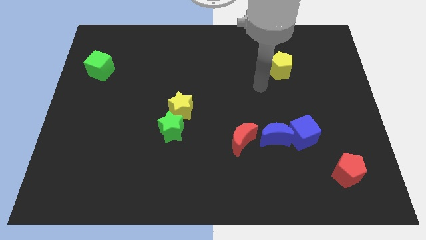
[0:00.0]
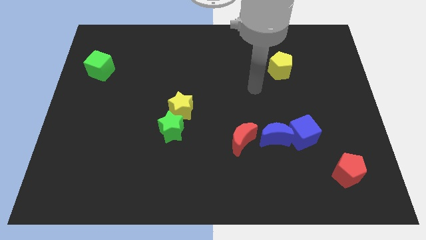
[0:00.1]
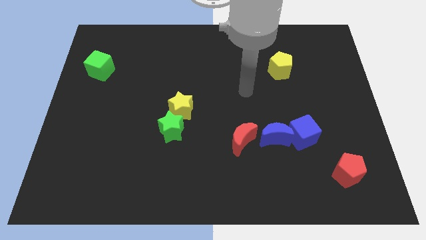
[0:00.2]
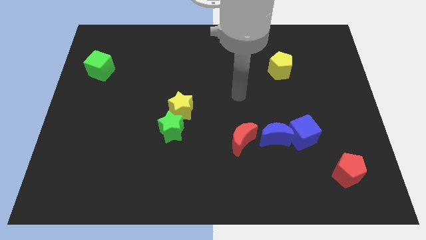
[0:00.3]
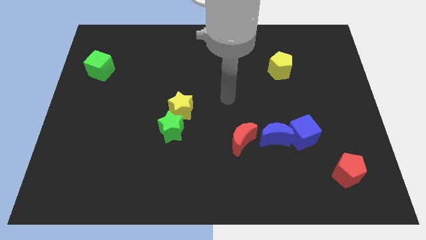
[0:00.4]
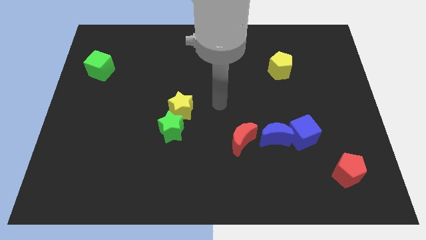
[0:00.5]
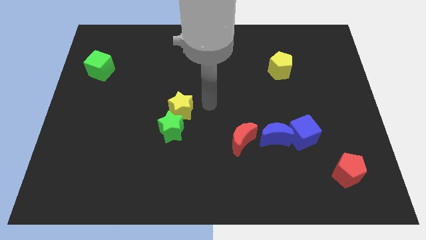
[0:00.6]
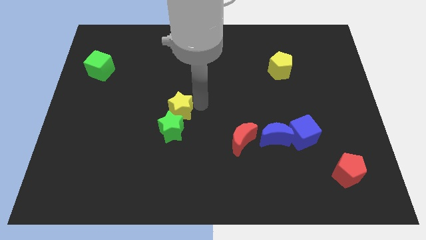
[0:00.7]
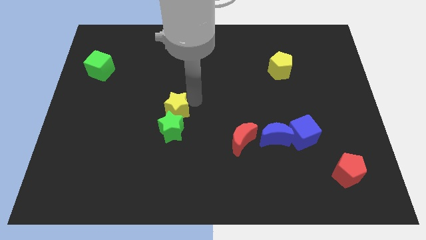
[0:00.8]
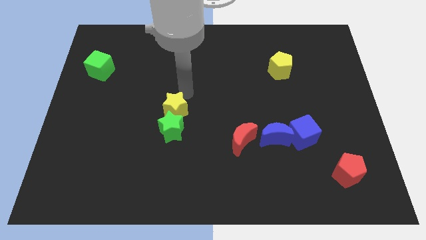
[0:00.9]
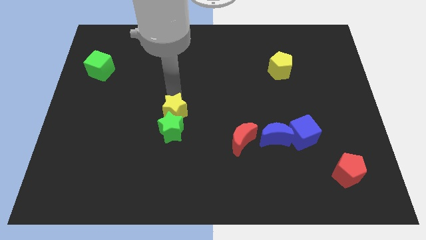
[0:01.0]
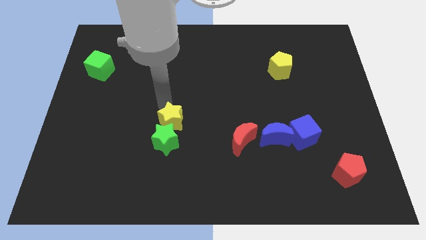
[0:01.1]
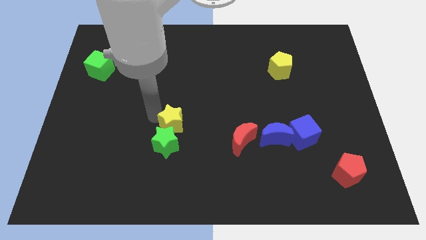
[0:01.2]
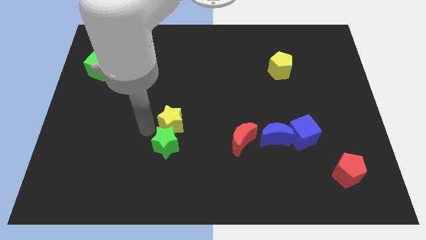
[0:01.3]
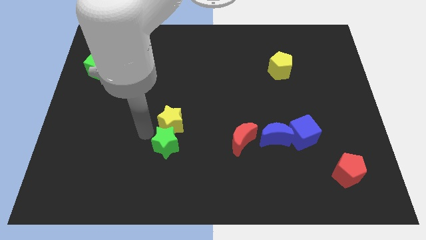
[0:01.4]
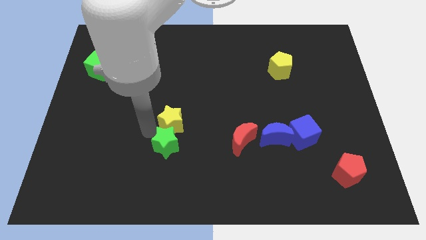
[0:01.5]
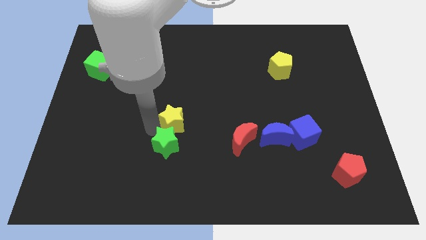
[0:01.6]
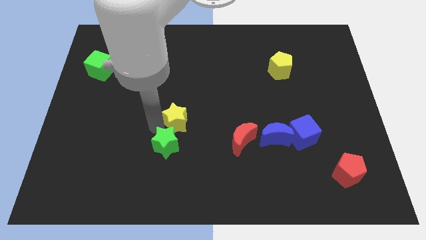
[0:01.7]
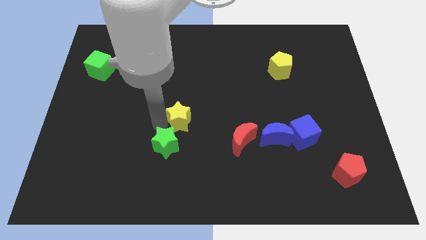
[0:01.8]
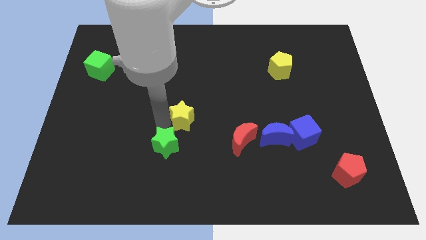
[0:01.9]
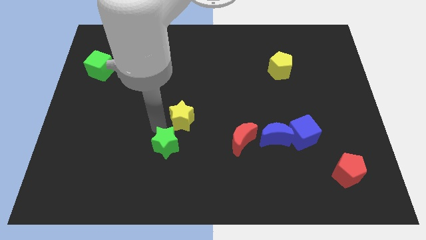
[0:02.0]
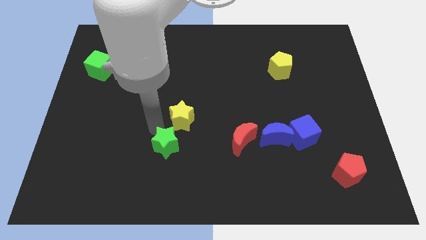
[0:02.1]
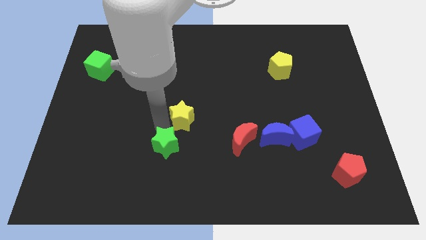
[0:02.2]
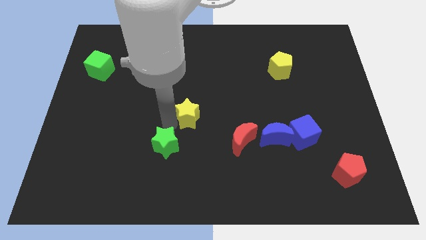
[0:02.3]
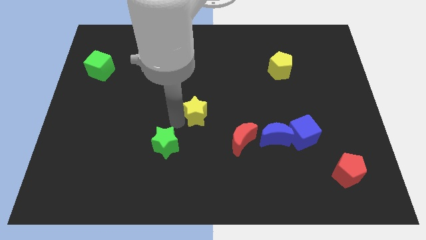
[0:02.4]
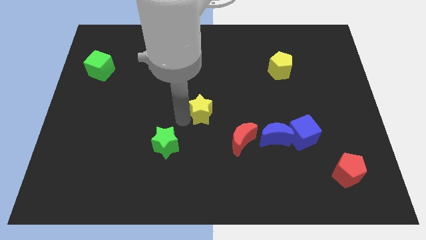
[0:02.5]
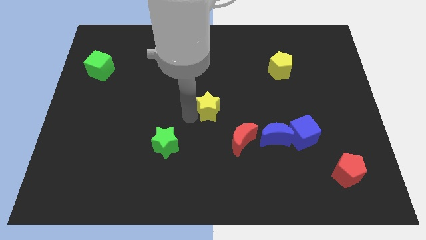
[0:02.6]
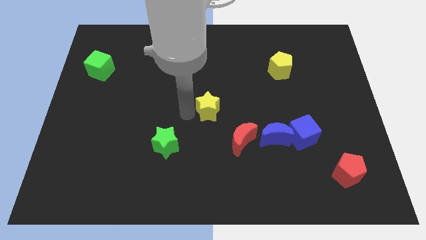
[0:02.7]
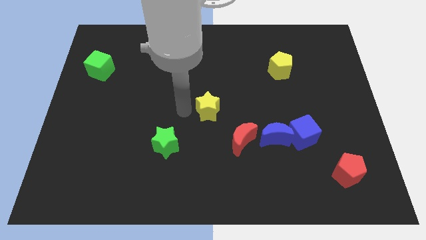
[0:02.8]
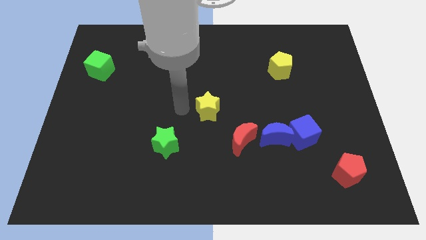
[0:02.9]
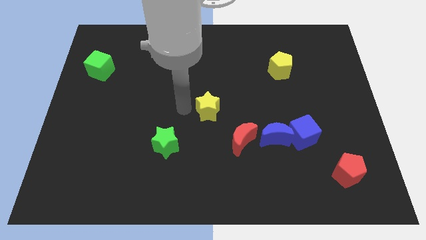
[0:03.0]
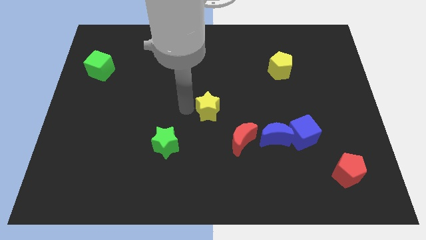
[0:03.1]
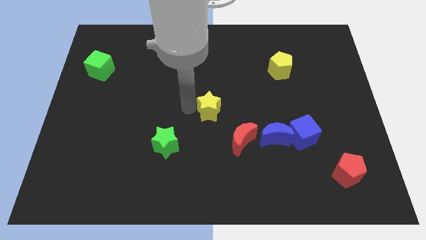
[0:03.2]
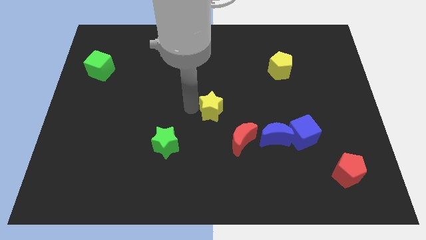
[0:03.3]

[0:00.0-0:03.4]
slightly push the yellow star to the right

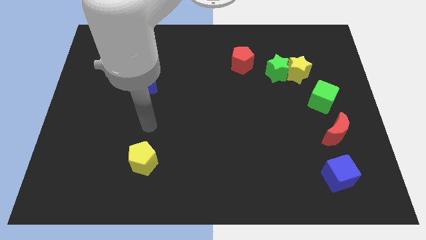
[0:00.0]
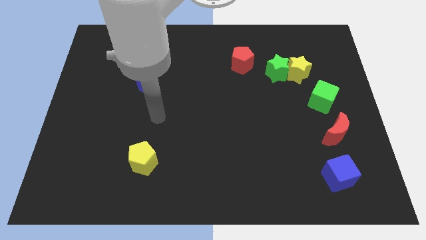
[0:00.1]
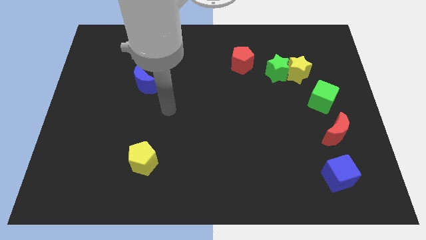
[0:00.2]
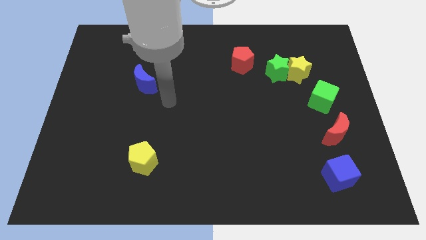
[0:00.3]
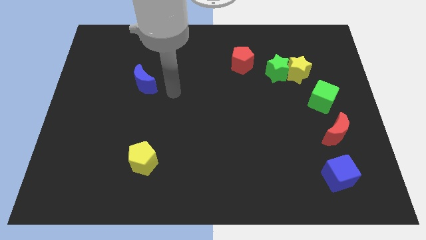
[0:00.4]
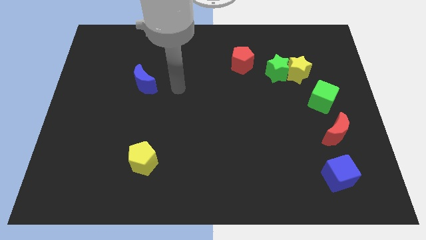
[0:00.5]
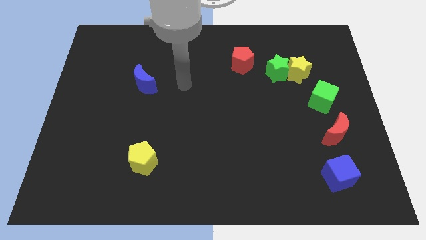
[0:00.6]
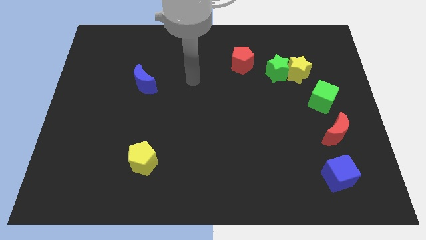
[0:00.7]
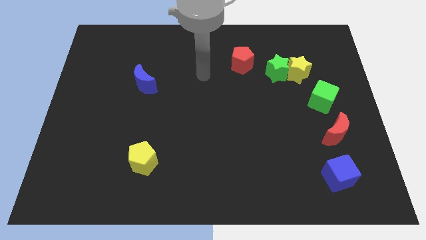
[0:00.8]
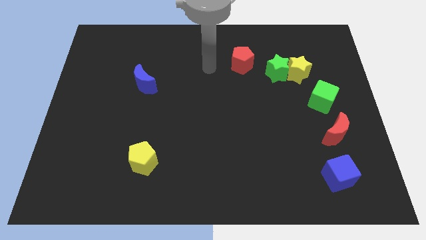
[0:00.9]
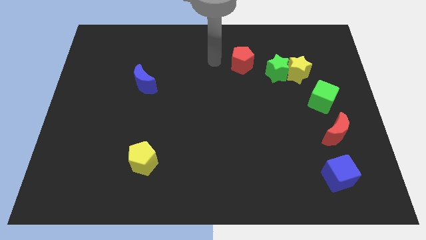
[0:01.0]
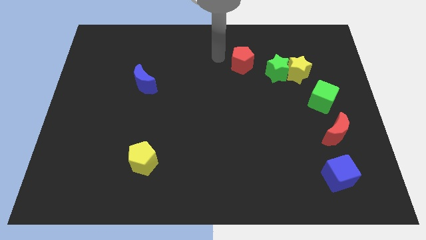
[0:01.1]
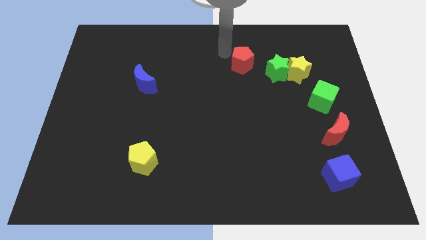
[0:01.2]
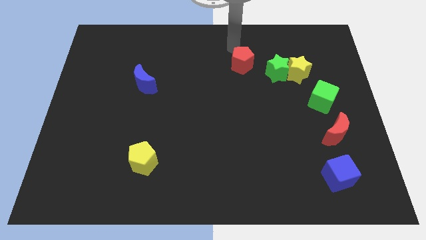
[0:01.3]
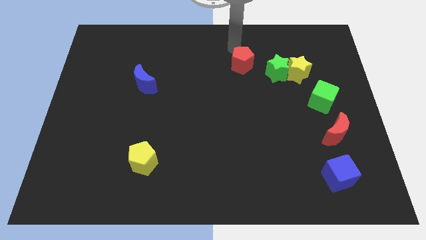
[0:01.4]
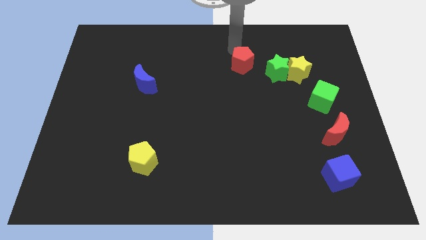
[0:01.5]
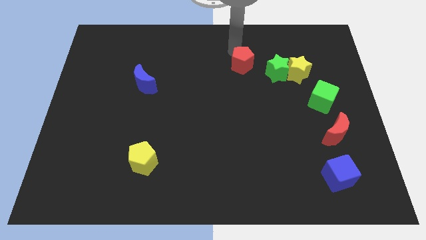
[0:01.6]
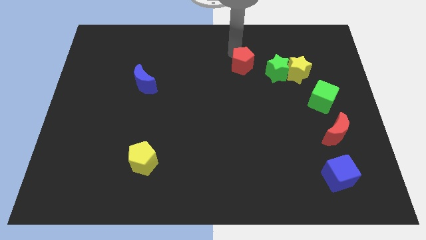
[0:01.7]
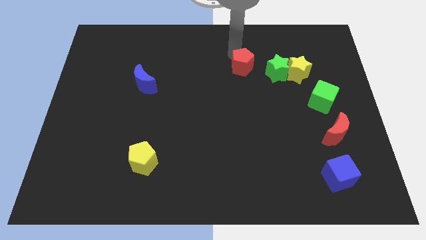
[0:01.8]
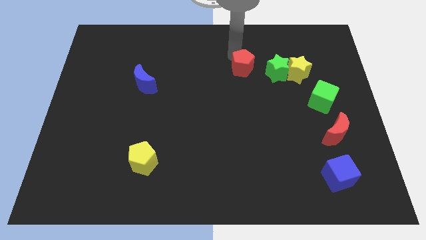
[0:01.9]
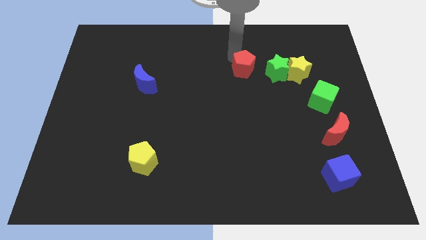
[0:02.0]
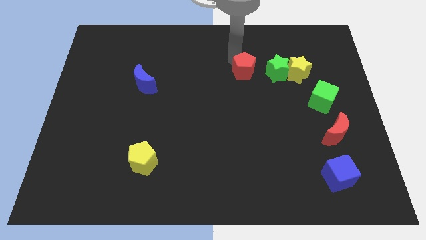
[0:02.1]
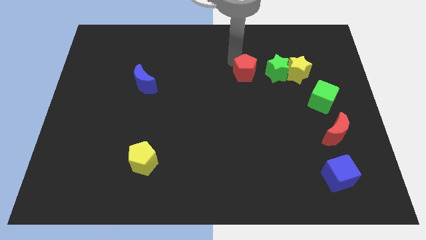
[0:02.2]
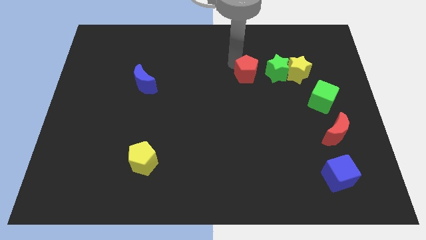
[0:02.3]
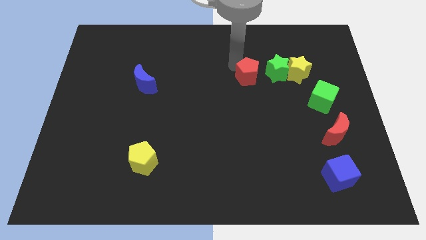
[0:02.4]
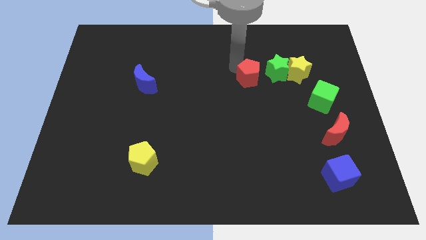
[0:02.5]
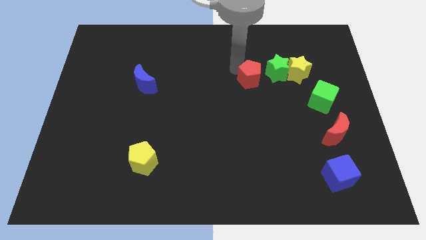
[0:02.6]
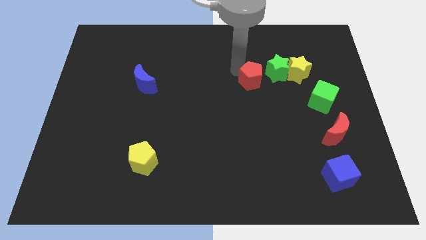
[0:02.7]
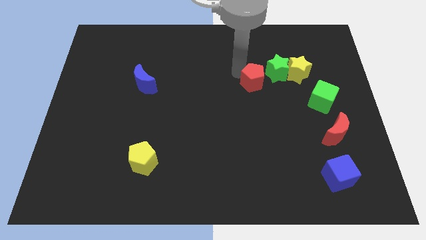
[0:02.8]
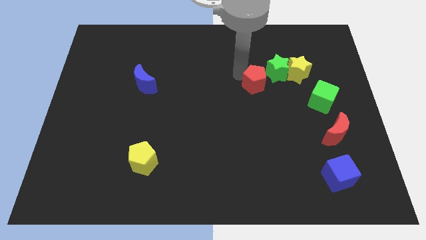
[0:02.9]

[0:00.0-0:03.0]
slide the red pentagon diagonally down and right a little bit

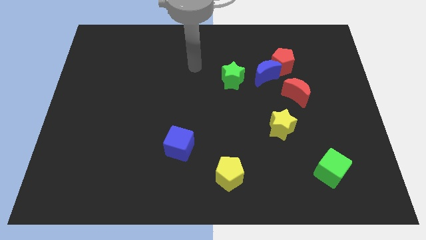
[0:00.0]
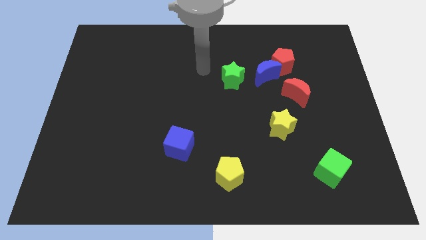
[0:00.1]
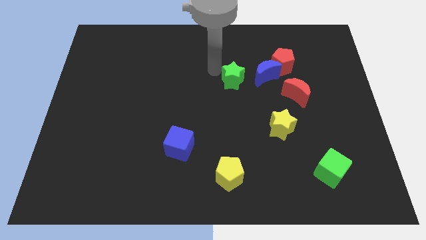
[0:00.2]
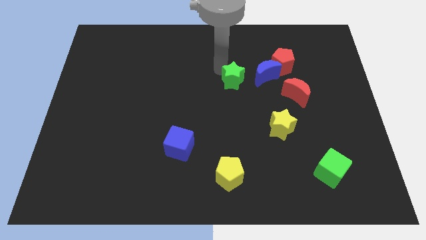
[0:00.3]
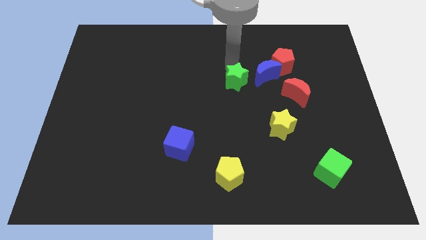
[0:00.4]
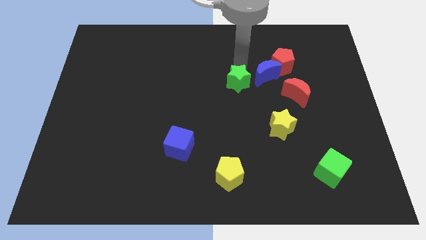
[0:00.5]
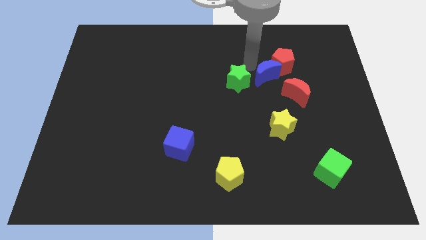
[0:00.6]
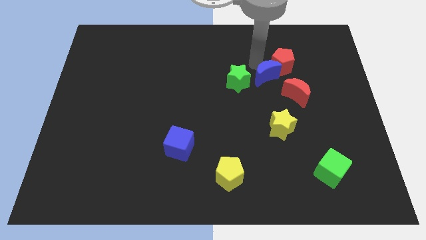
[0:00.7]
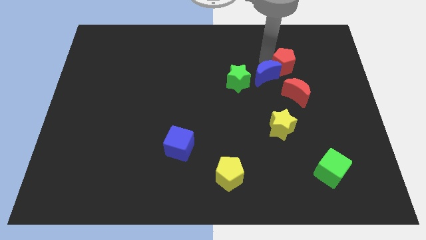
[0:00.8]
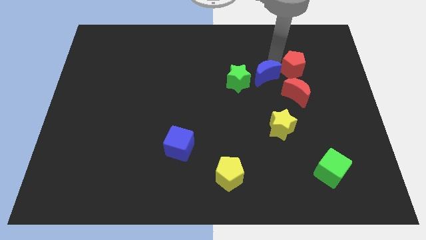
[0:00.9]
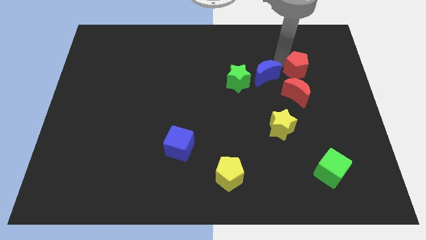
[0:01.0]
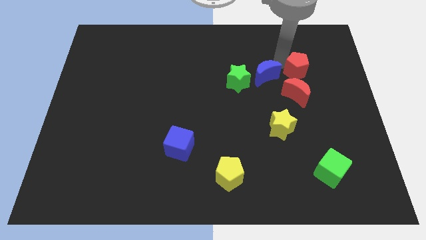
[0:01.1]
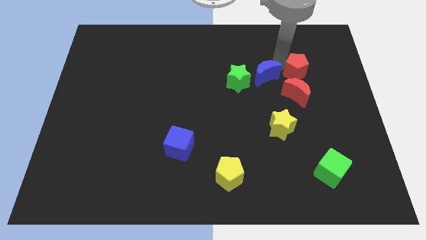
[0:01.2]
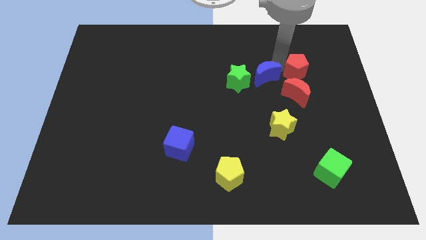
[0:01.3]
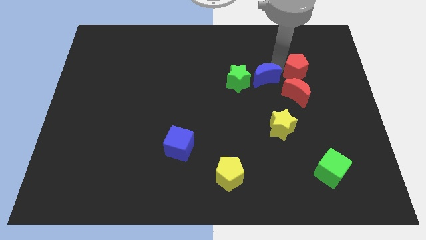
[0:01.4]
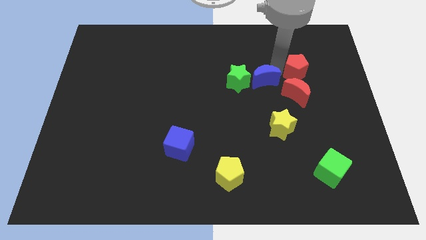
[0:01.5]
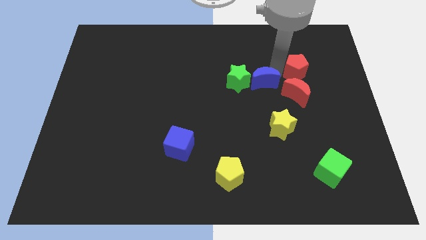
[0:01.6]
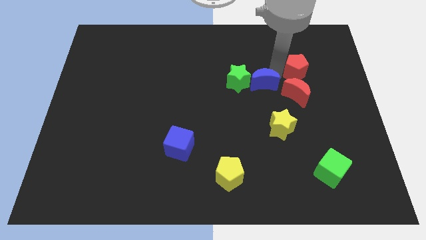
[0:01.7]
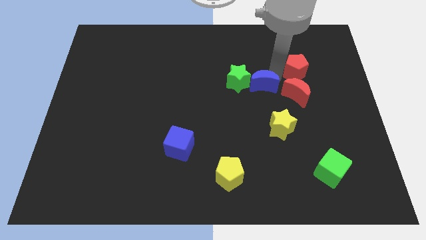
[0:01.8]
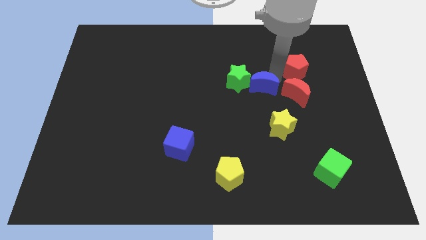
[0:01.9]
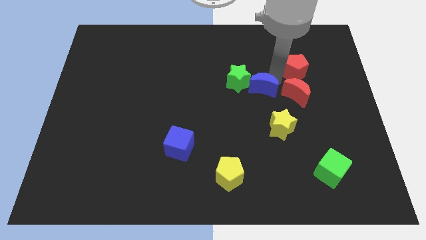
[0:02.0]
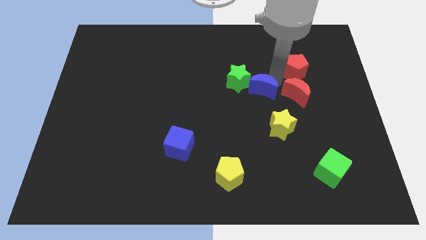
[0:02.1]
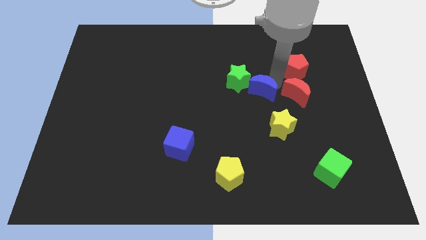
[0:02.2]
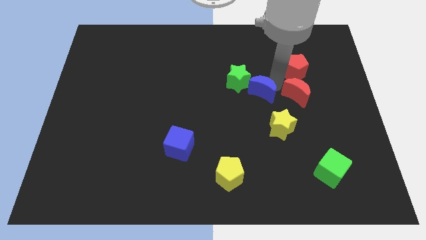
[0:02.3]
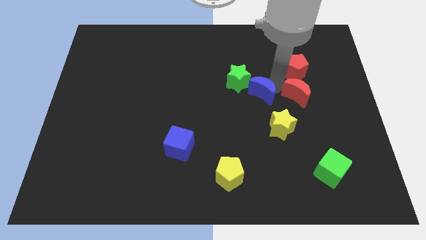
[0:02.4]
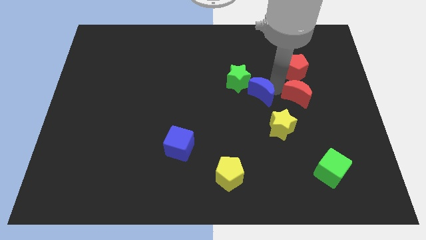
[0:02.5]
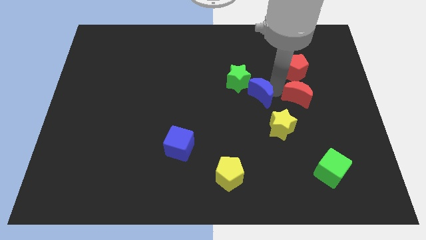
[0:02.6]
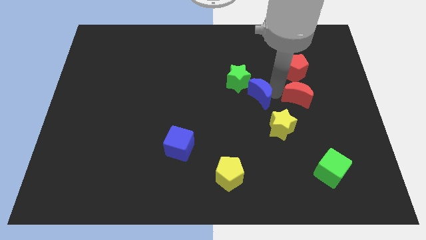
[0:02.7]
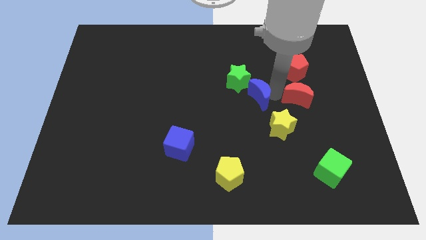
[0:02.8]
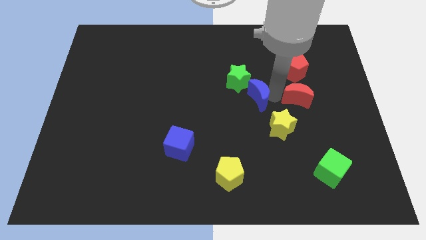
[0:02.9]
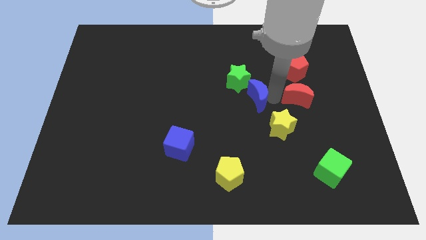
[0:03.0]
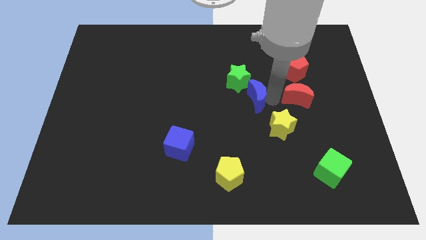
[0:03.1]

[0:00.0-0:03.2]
slightly slide the blue moon downwards and left
